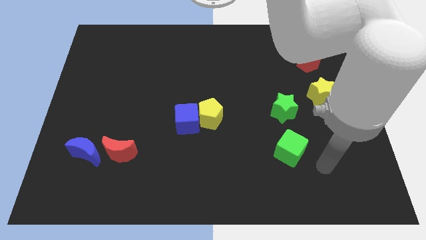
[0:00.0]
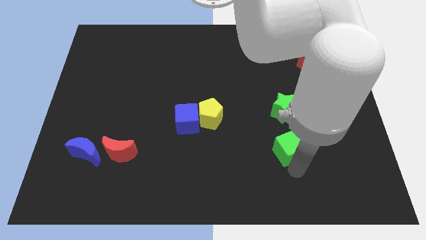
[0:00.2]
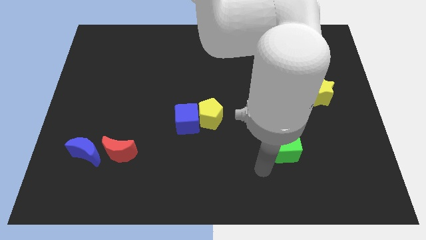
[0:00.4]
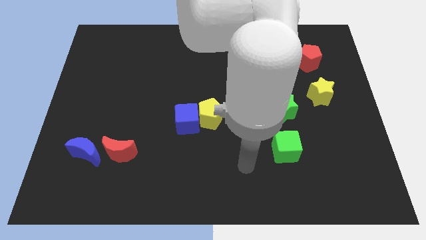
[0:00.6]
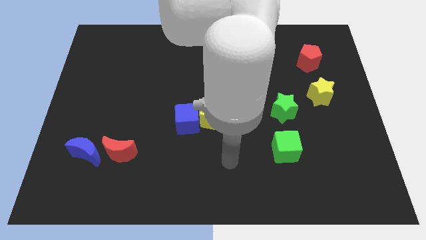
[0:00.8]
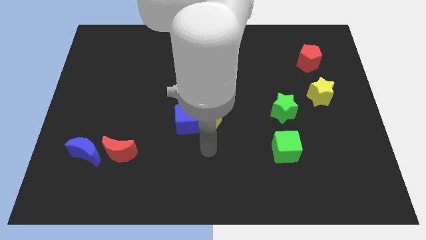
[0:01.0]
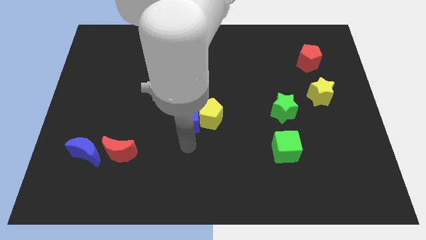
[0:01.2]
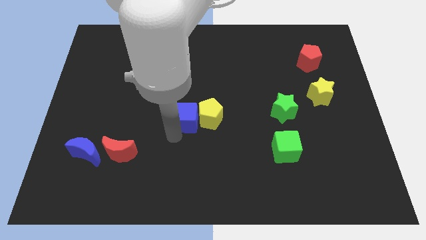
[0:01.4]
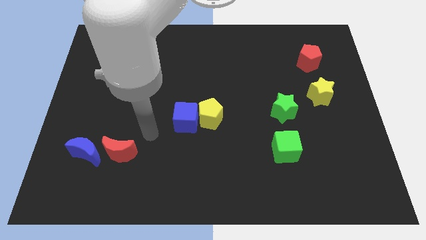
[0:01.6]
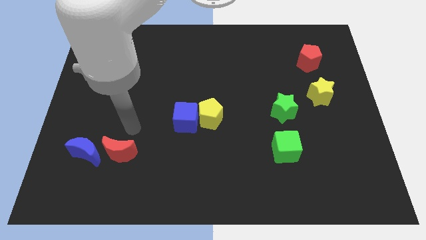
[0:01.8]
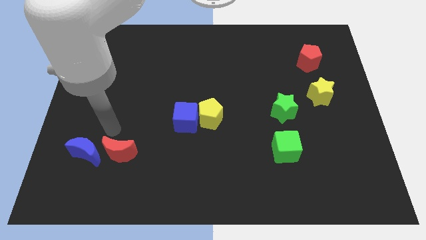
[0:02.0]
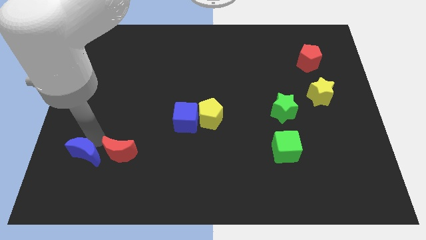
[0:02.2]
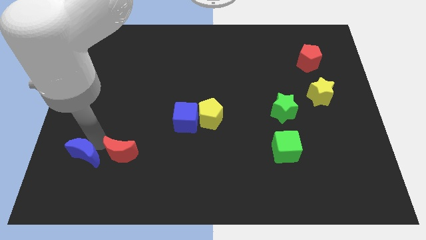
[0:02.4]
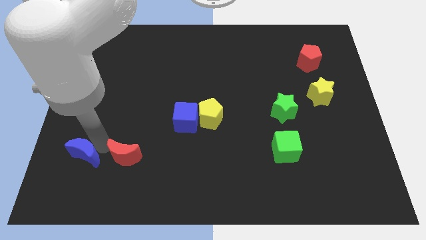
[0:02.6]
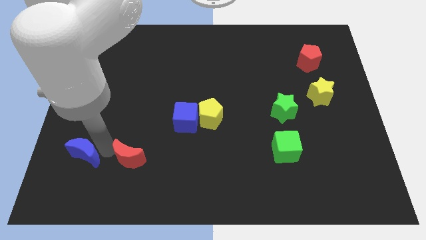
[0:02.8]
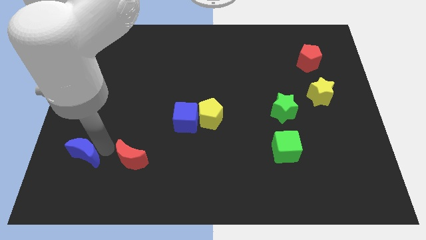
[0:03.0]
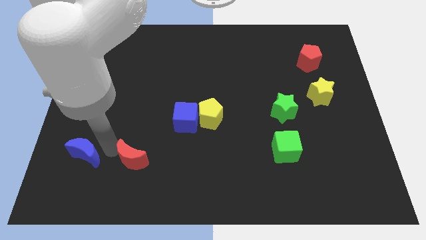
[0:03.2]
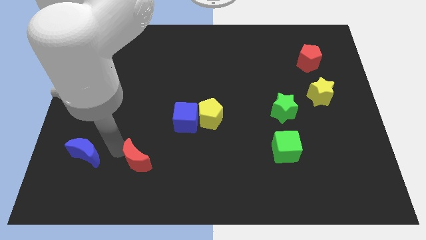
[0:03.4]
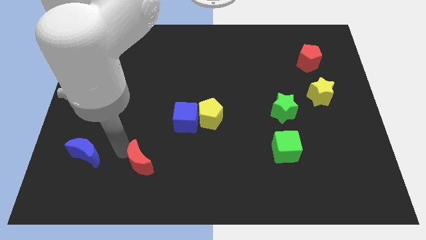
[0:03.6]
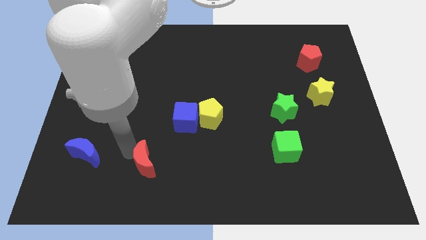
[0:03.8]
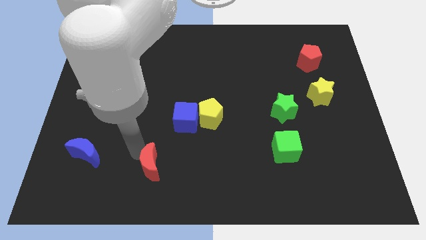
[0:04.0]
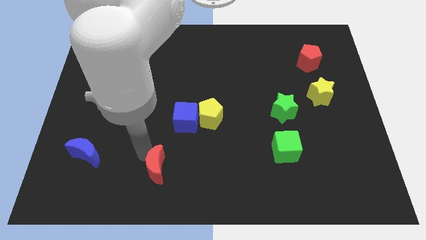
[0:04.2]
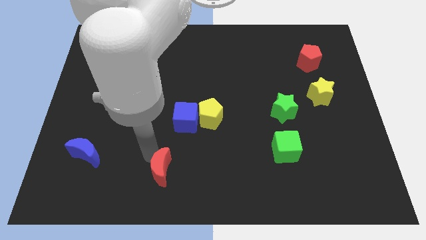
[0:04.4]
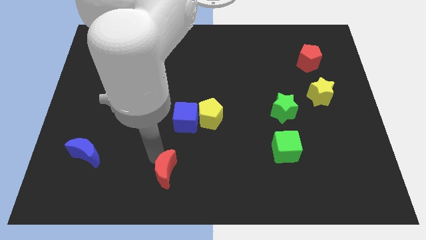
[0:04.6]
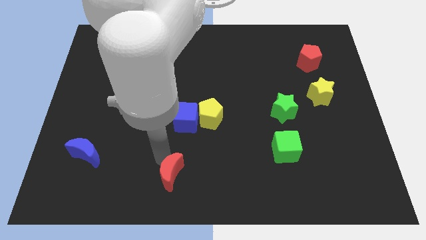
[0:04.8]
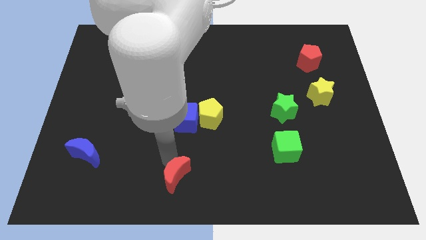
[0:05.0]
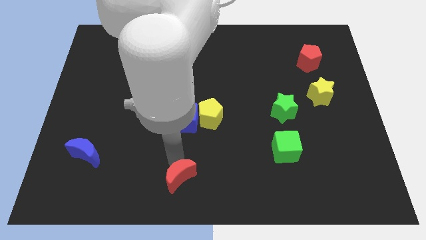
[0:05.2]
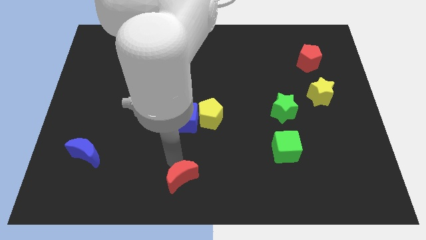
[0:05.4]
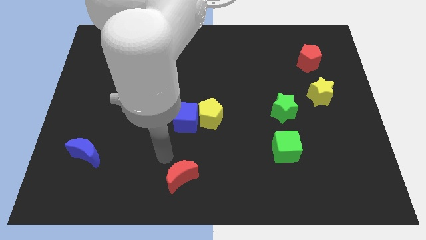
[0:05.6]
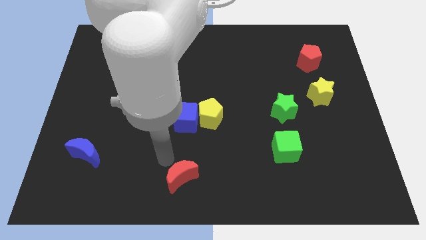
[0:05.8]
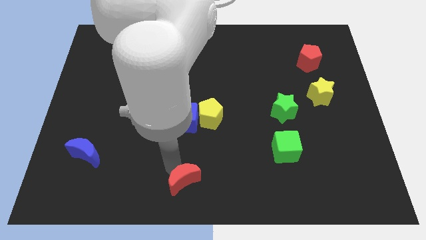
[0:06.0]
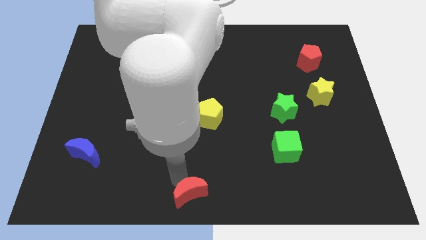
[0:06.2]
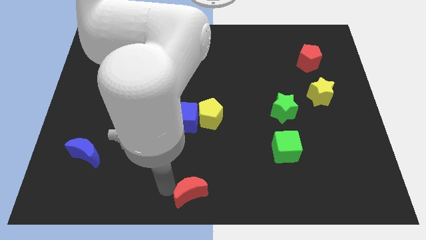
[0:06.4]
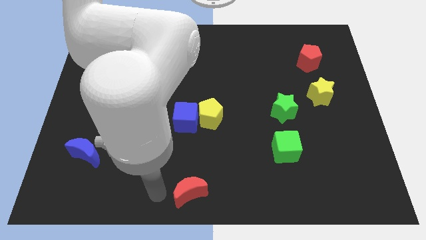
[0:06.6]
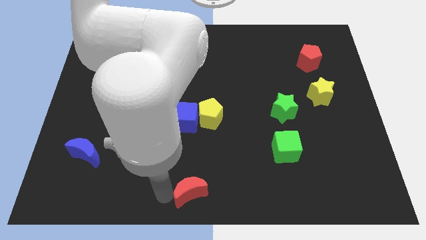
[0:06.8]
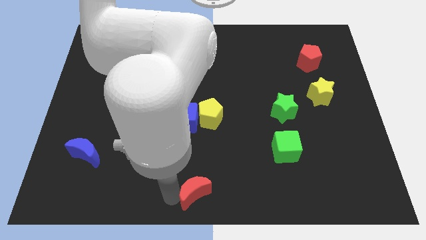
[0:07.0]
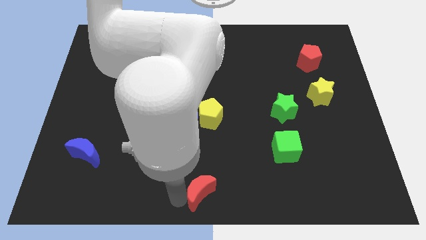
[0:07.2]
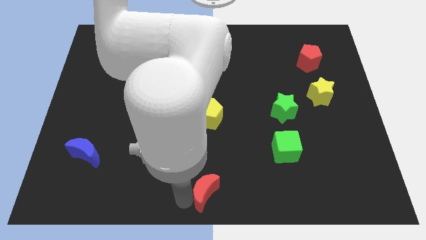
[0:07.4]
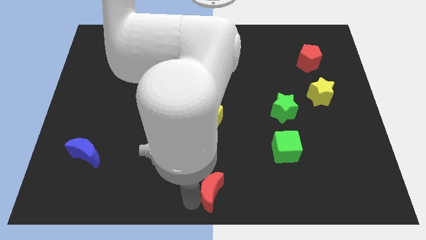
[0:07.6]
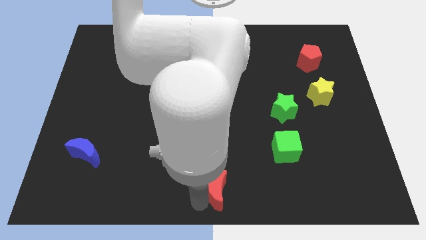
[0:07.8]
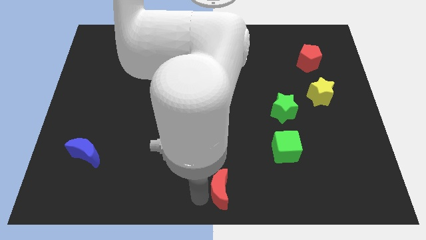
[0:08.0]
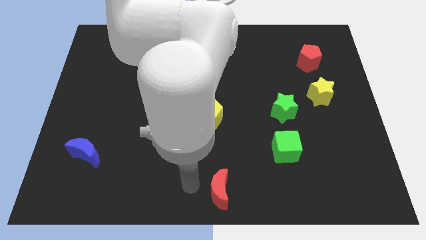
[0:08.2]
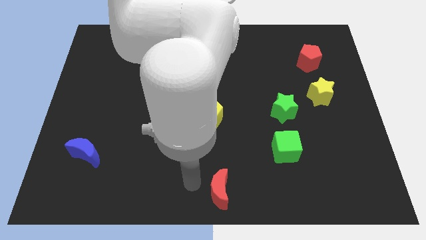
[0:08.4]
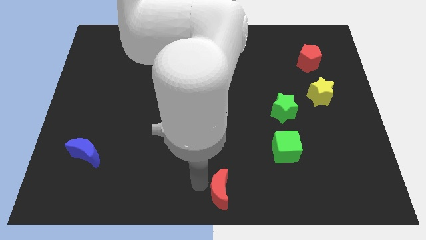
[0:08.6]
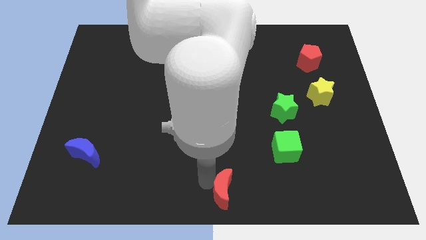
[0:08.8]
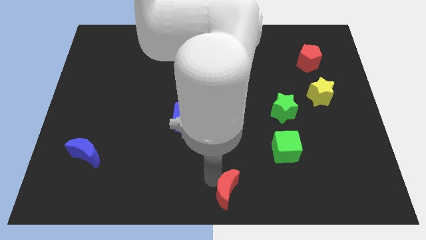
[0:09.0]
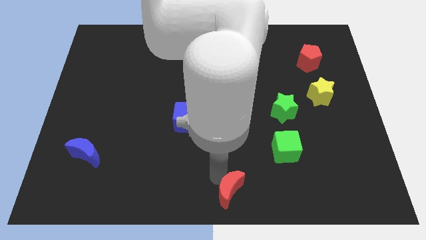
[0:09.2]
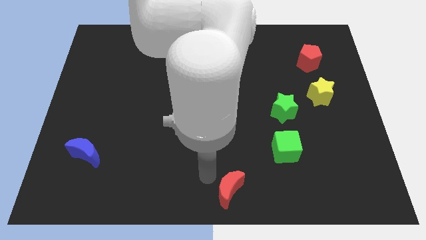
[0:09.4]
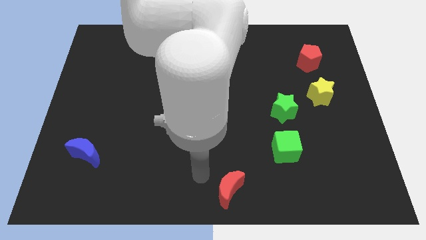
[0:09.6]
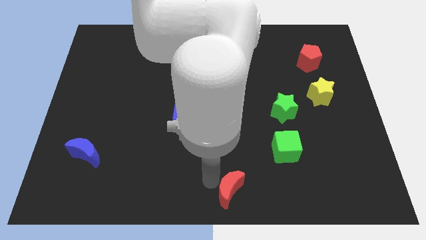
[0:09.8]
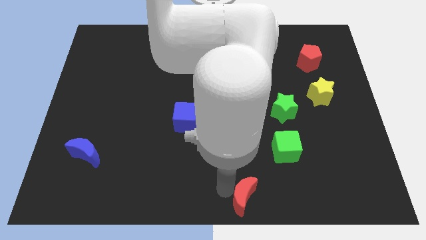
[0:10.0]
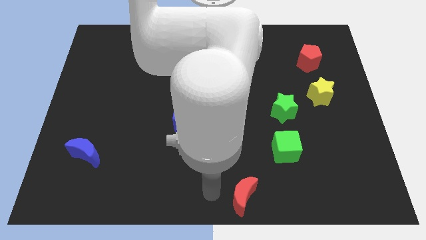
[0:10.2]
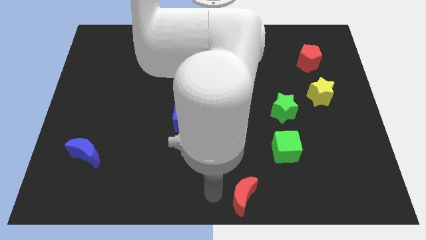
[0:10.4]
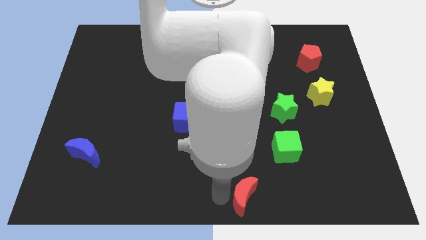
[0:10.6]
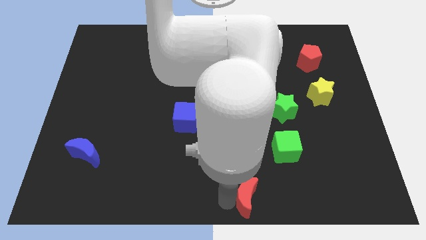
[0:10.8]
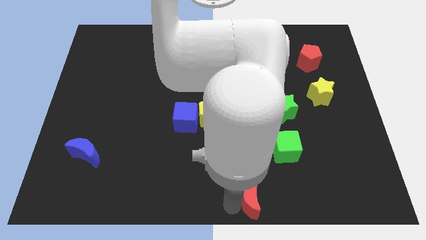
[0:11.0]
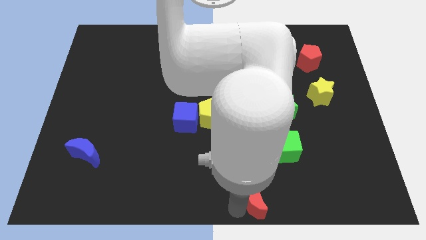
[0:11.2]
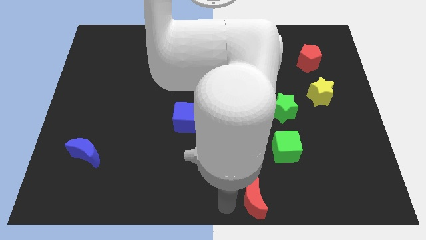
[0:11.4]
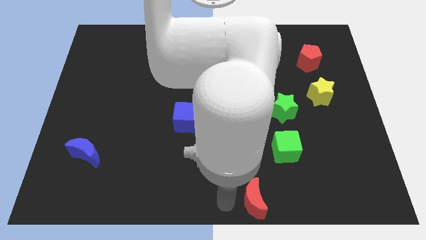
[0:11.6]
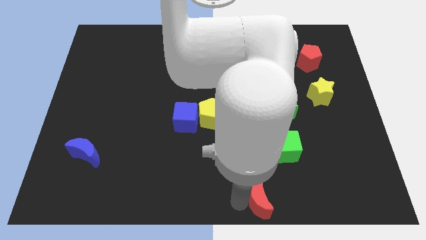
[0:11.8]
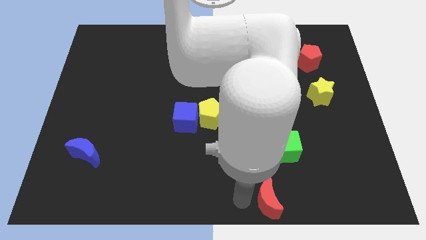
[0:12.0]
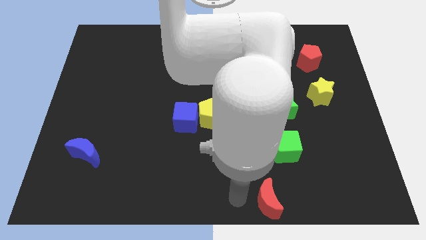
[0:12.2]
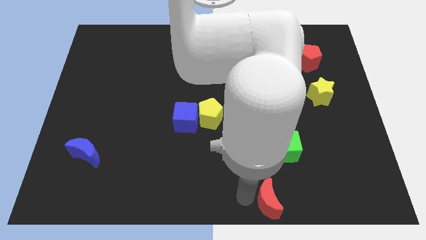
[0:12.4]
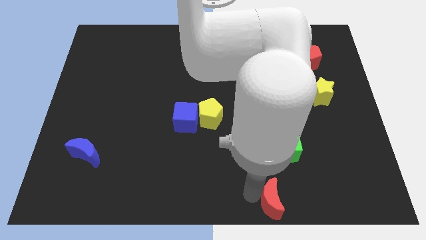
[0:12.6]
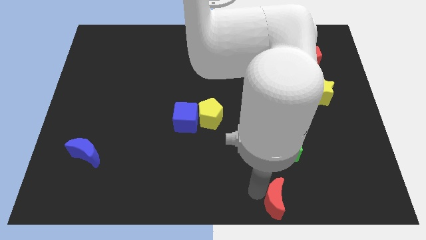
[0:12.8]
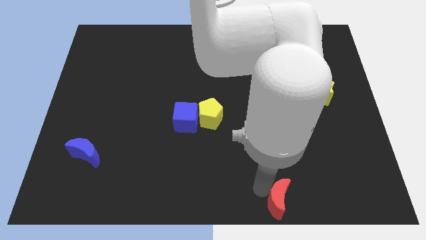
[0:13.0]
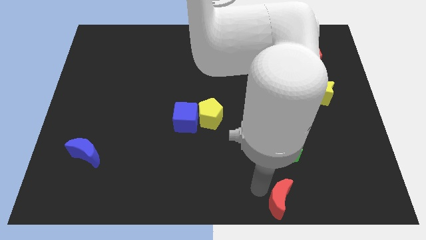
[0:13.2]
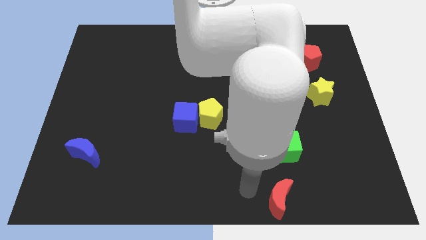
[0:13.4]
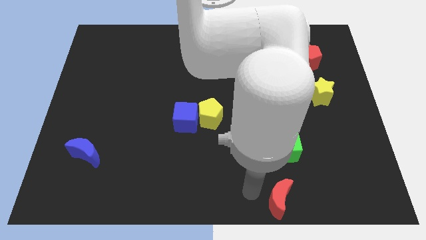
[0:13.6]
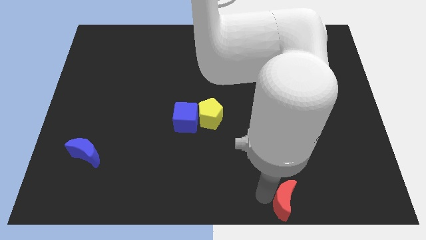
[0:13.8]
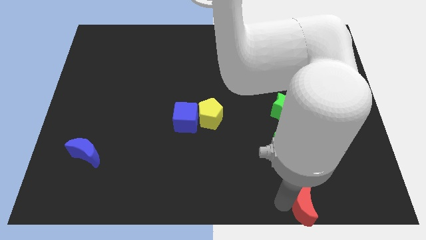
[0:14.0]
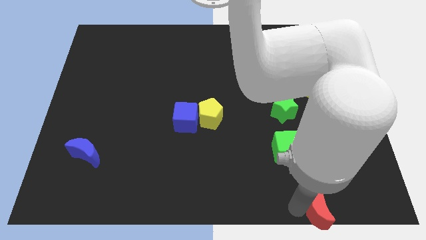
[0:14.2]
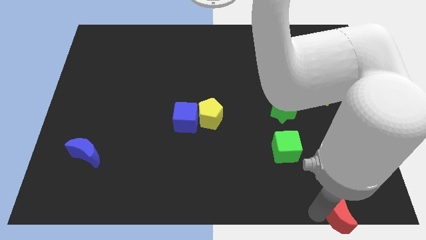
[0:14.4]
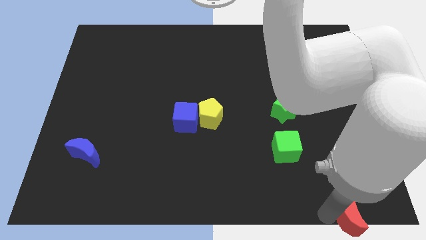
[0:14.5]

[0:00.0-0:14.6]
put the red moon to the lower right corner
